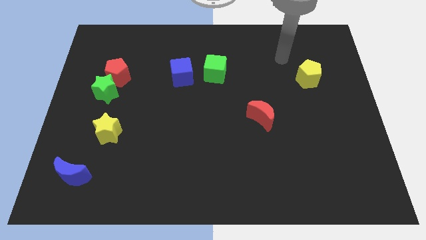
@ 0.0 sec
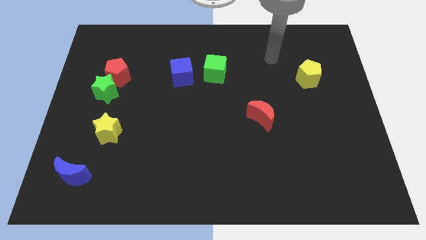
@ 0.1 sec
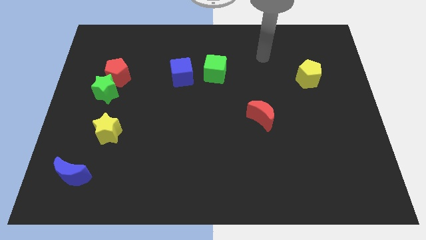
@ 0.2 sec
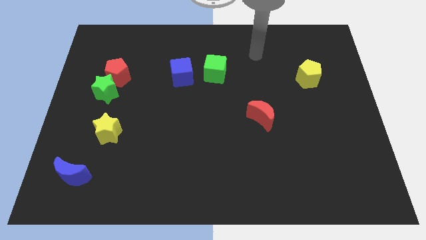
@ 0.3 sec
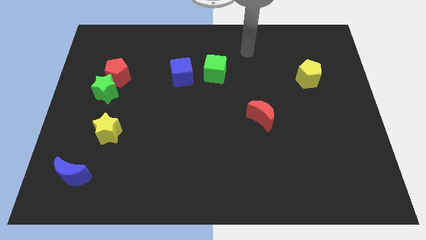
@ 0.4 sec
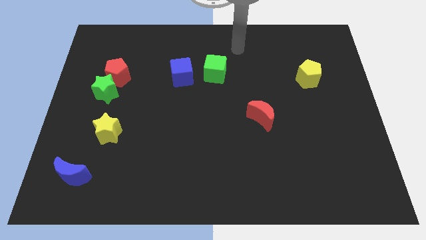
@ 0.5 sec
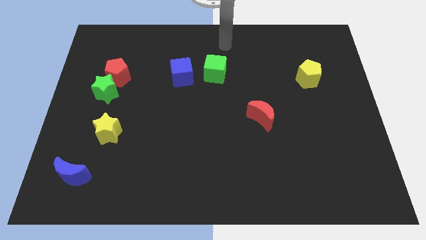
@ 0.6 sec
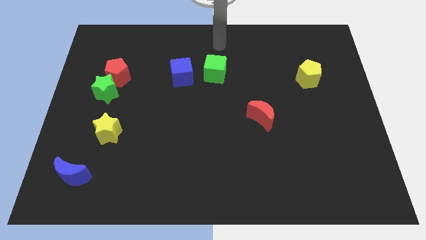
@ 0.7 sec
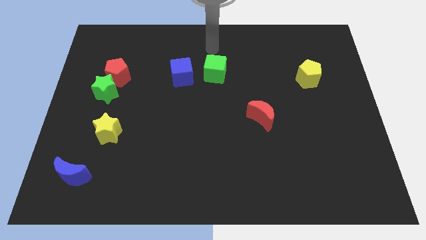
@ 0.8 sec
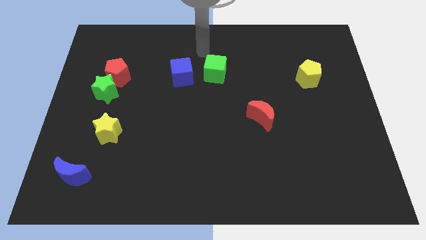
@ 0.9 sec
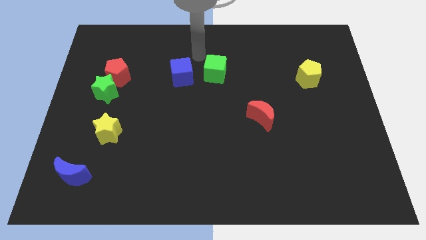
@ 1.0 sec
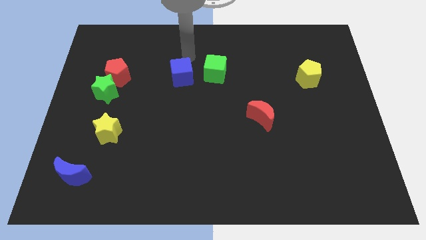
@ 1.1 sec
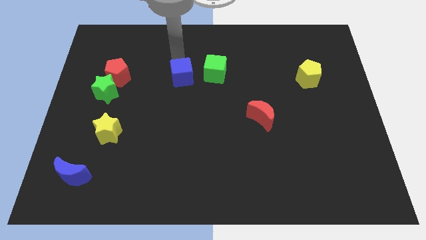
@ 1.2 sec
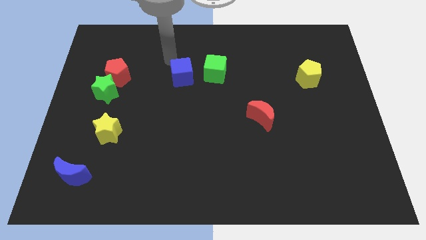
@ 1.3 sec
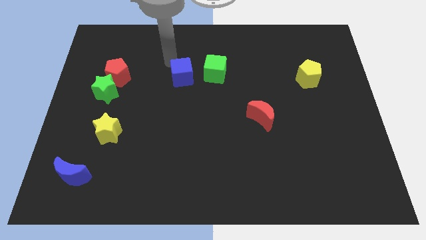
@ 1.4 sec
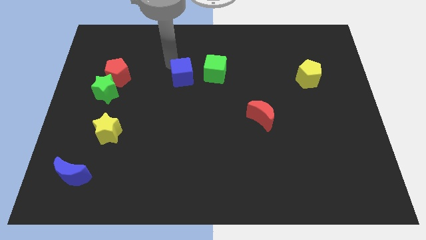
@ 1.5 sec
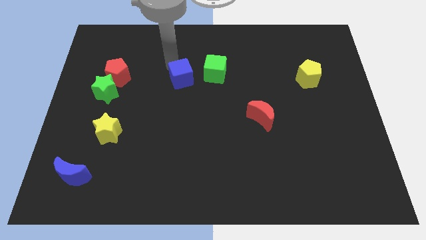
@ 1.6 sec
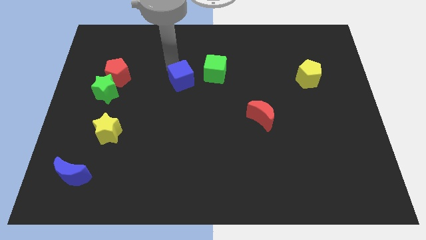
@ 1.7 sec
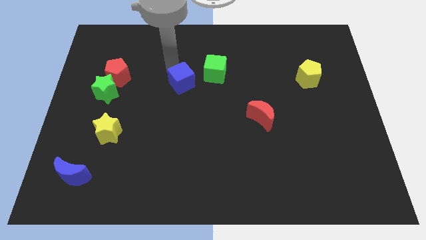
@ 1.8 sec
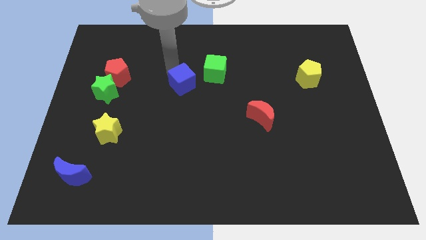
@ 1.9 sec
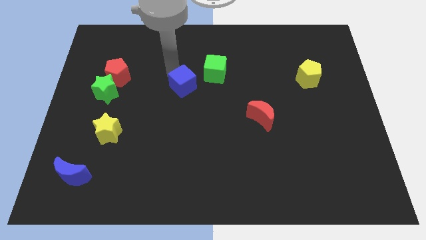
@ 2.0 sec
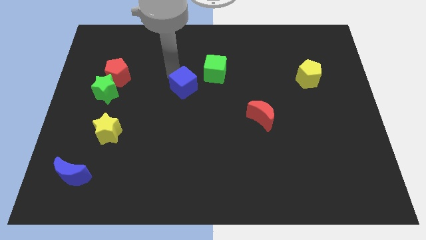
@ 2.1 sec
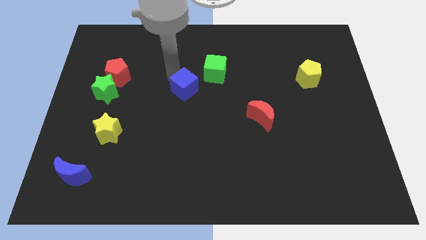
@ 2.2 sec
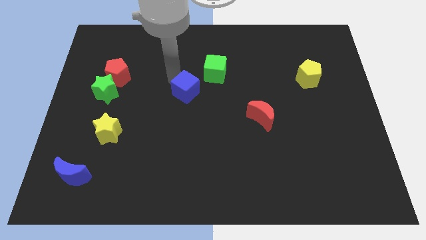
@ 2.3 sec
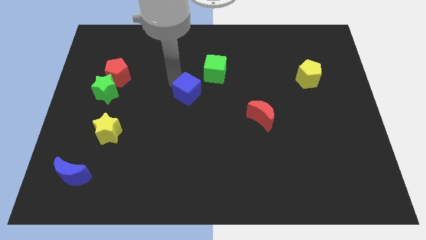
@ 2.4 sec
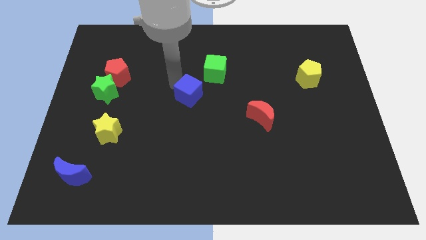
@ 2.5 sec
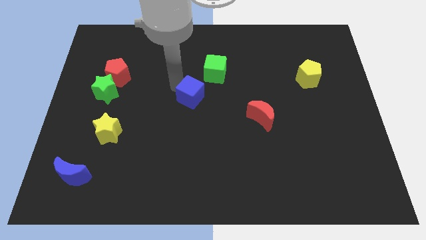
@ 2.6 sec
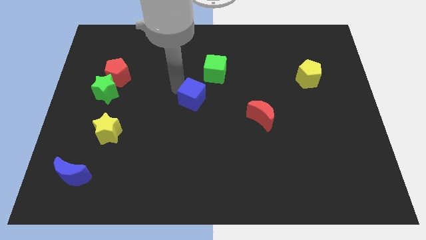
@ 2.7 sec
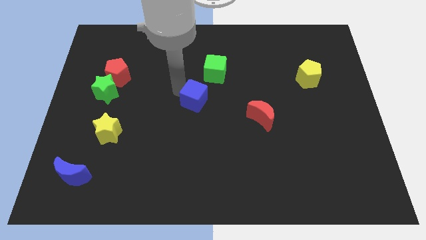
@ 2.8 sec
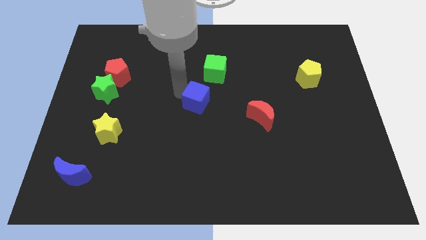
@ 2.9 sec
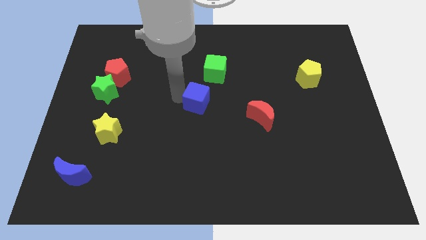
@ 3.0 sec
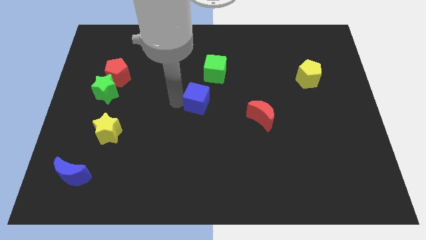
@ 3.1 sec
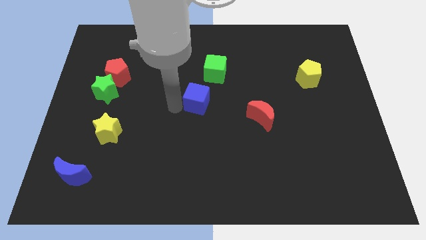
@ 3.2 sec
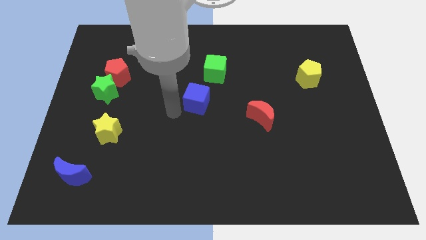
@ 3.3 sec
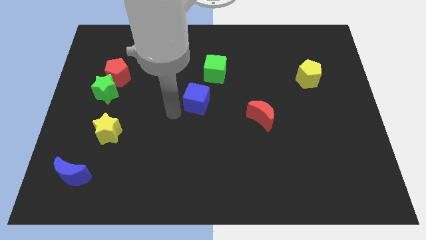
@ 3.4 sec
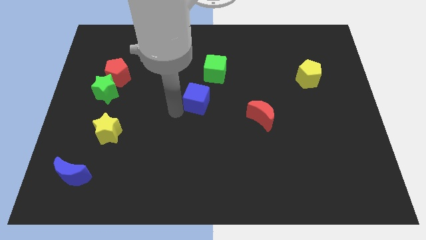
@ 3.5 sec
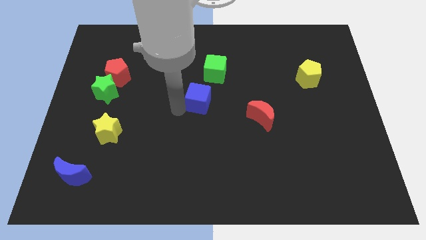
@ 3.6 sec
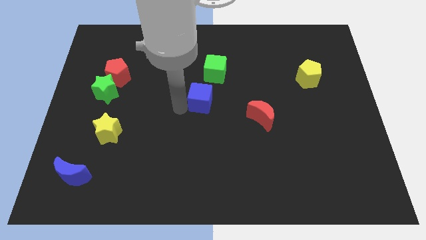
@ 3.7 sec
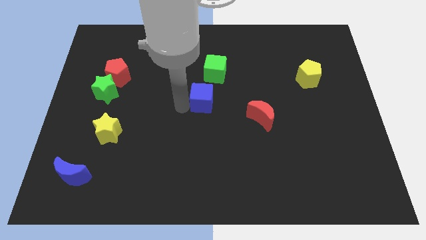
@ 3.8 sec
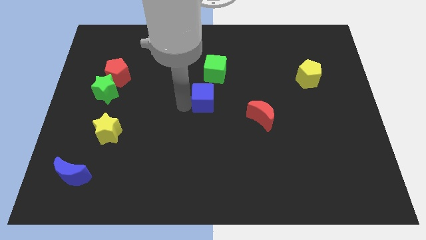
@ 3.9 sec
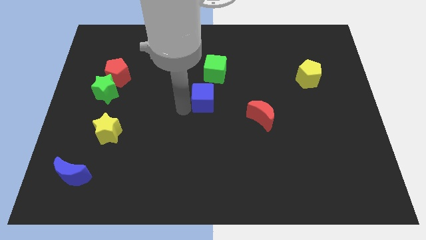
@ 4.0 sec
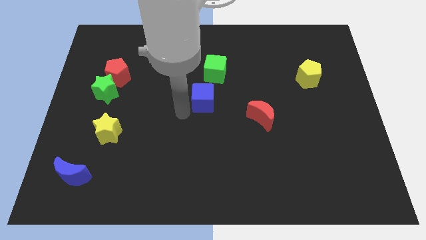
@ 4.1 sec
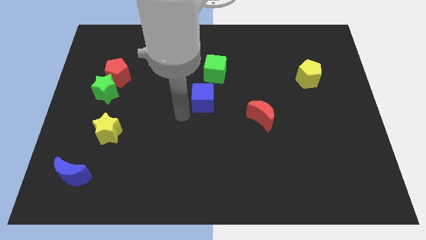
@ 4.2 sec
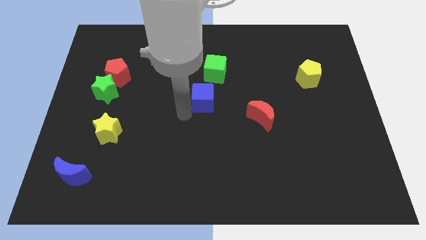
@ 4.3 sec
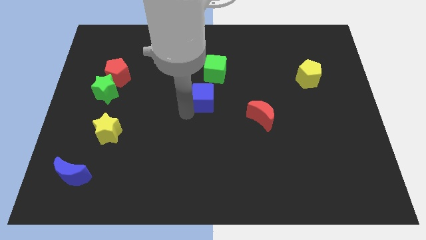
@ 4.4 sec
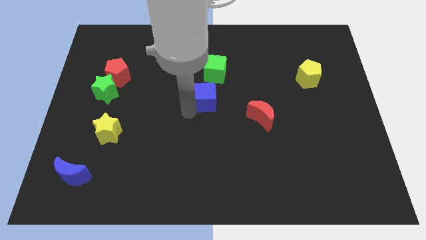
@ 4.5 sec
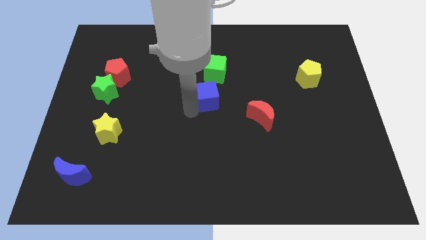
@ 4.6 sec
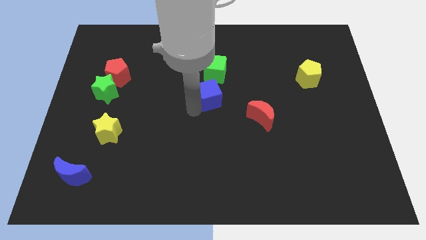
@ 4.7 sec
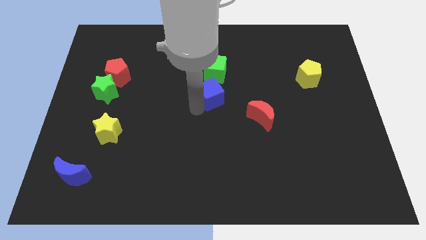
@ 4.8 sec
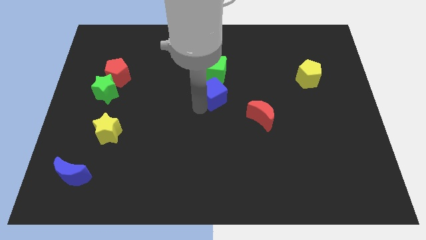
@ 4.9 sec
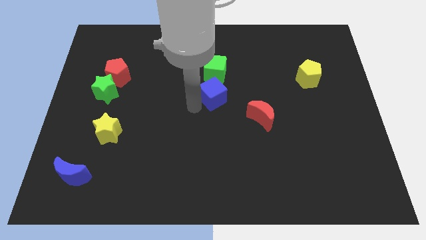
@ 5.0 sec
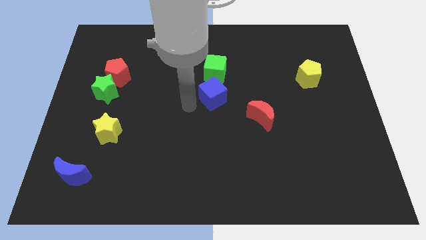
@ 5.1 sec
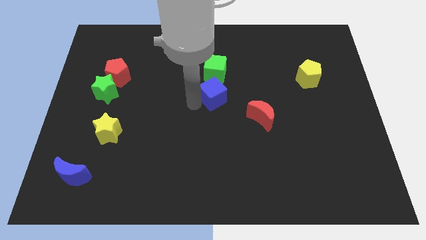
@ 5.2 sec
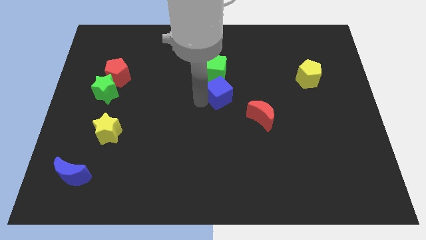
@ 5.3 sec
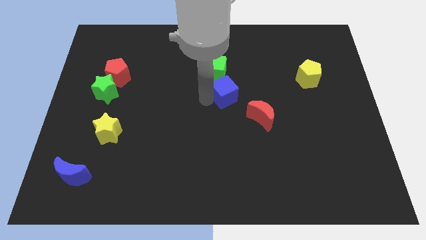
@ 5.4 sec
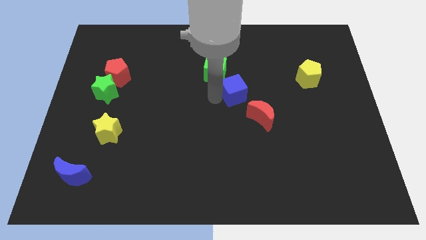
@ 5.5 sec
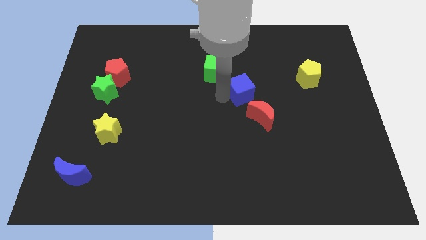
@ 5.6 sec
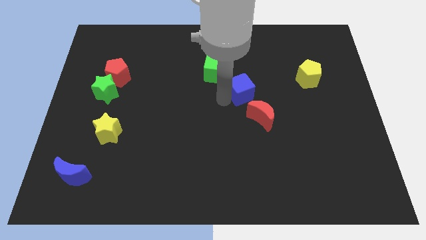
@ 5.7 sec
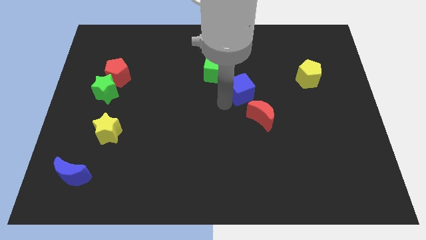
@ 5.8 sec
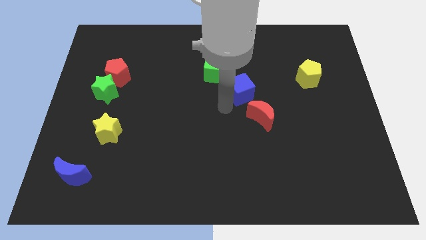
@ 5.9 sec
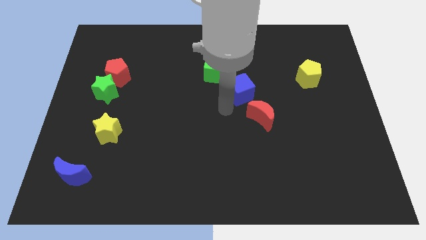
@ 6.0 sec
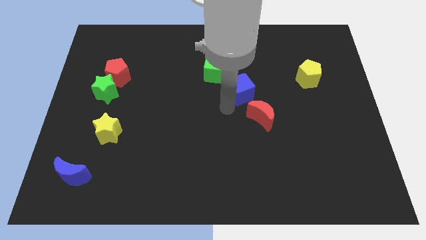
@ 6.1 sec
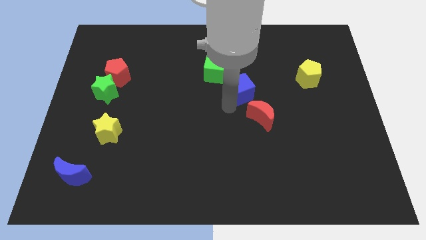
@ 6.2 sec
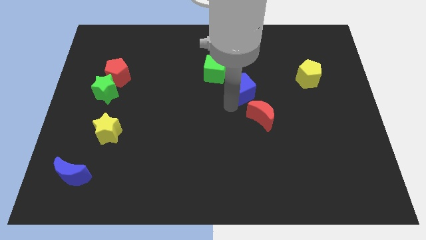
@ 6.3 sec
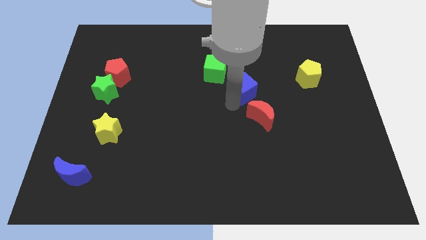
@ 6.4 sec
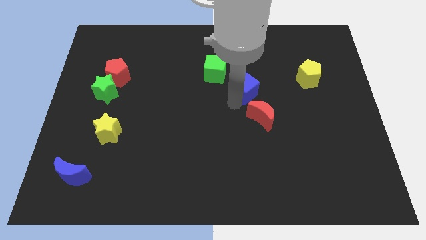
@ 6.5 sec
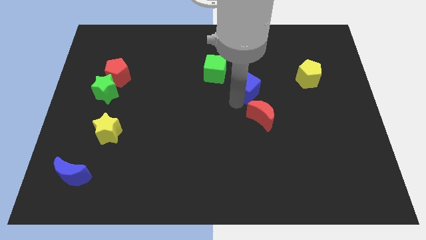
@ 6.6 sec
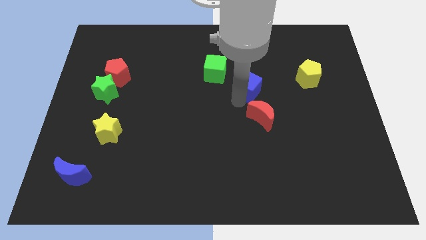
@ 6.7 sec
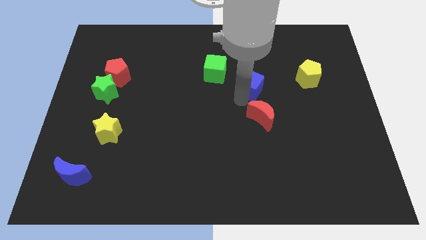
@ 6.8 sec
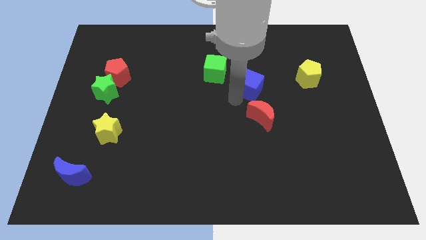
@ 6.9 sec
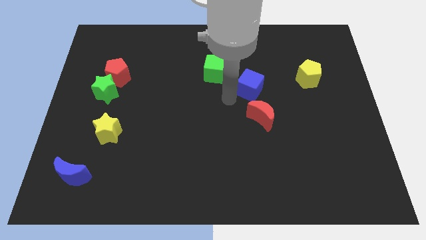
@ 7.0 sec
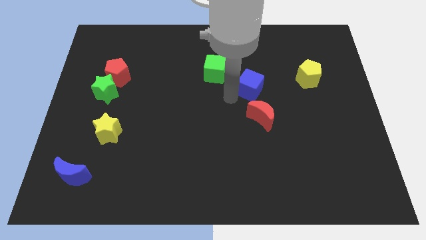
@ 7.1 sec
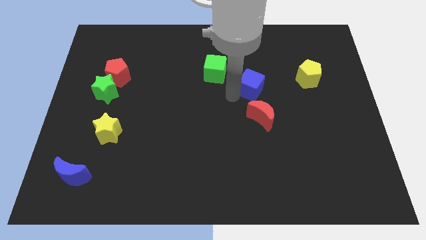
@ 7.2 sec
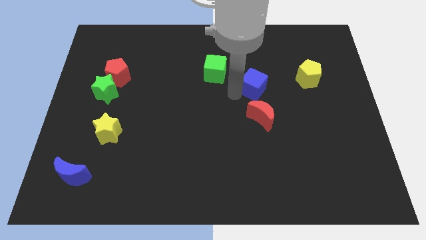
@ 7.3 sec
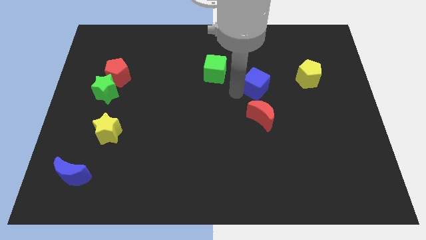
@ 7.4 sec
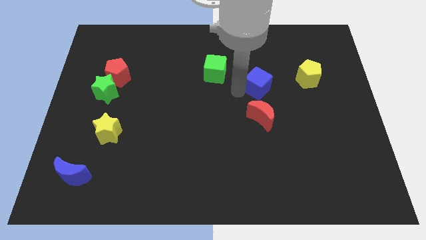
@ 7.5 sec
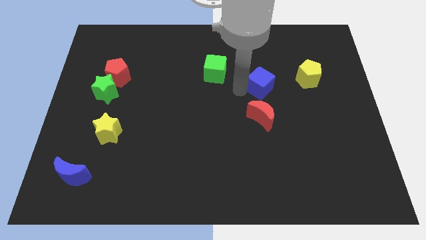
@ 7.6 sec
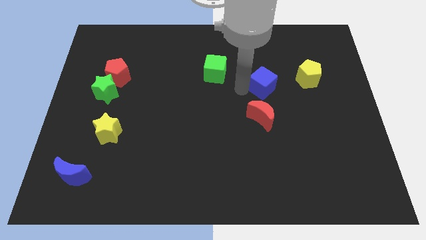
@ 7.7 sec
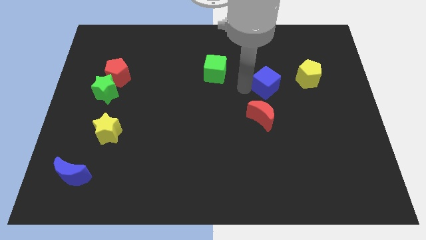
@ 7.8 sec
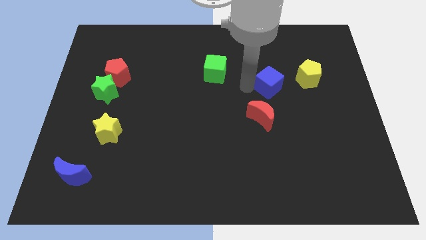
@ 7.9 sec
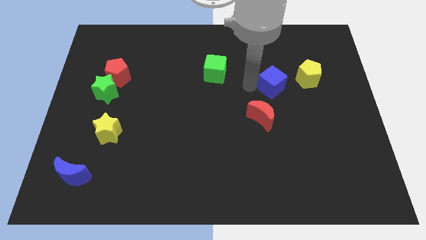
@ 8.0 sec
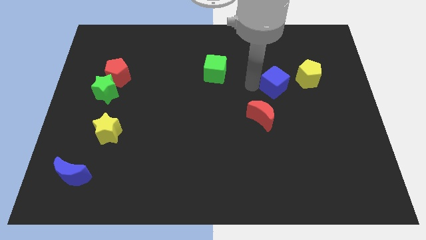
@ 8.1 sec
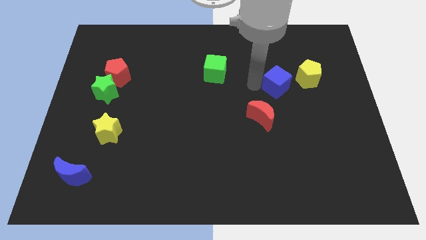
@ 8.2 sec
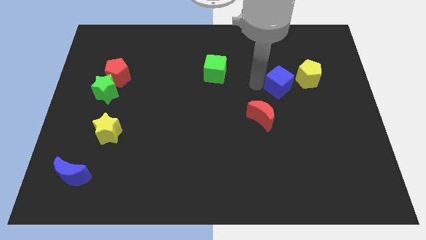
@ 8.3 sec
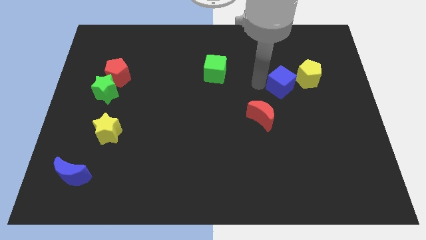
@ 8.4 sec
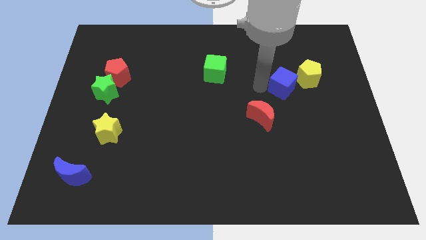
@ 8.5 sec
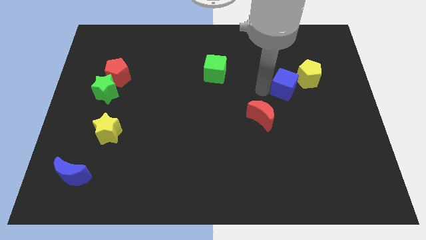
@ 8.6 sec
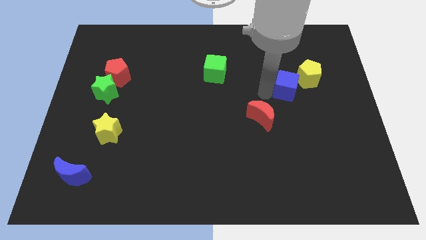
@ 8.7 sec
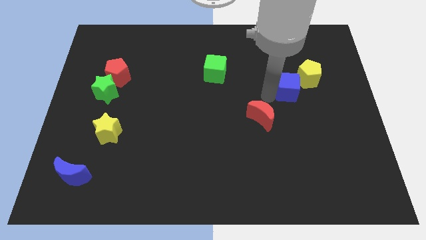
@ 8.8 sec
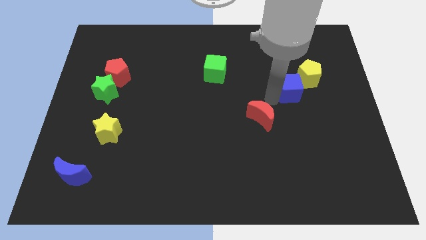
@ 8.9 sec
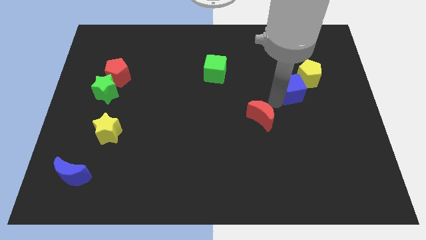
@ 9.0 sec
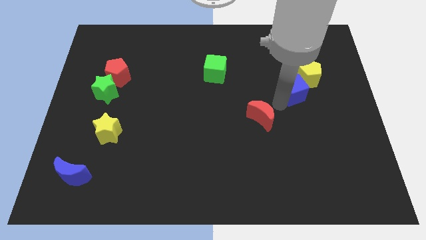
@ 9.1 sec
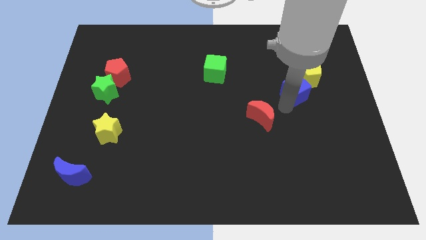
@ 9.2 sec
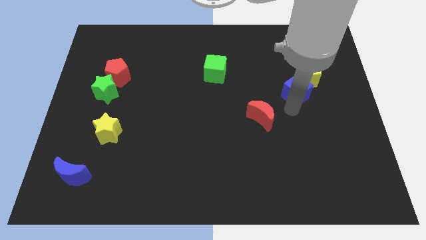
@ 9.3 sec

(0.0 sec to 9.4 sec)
push the blue cube close to the yellow pentagon
